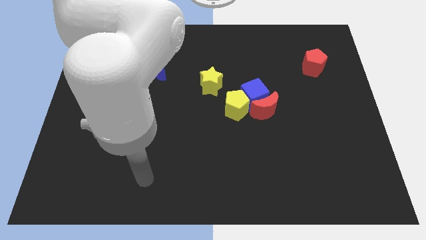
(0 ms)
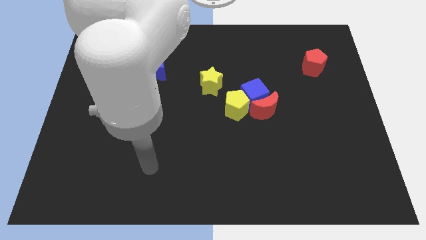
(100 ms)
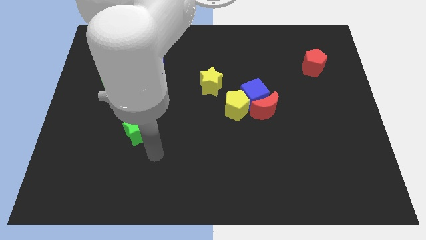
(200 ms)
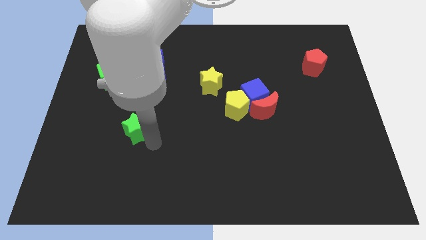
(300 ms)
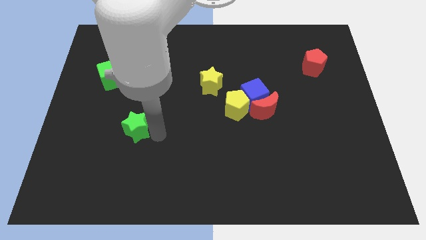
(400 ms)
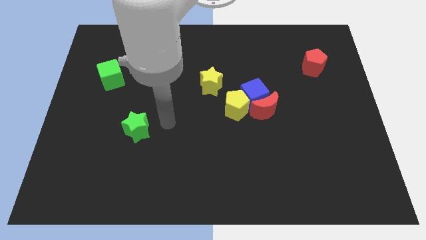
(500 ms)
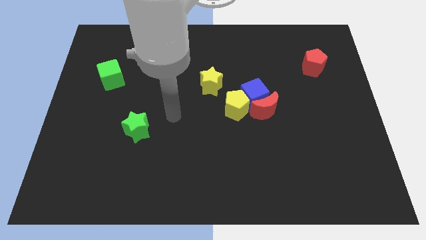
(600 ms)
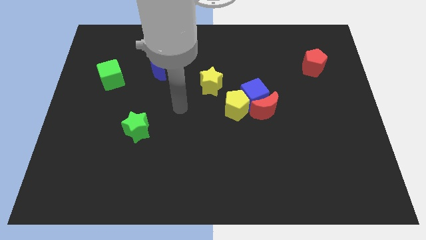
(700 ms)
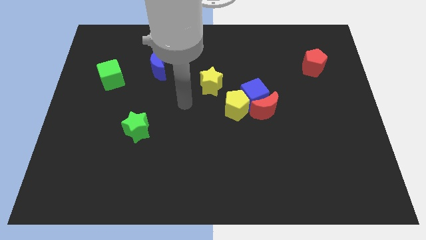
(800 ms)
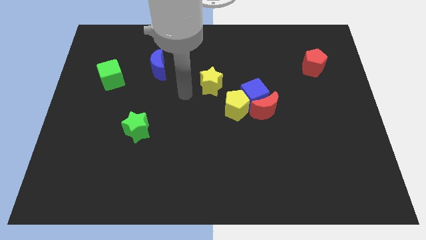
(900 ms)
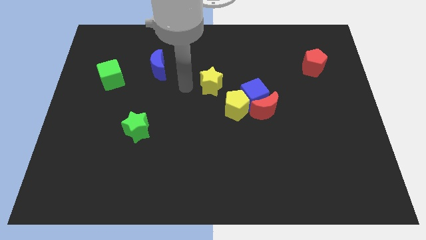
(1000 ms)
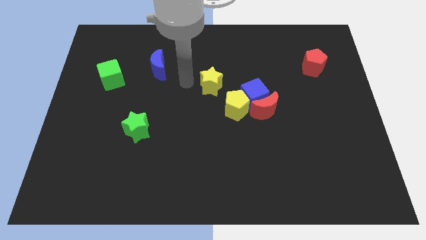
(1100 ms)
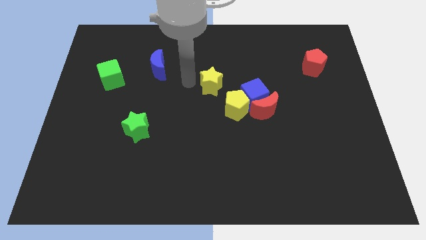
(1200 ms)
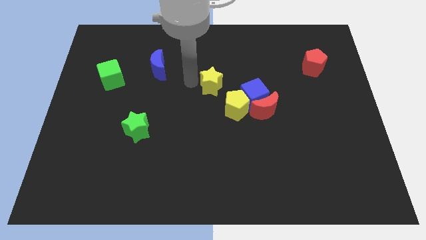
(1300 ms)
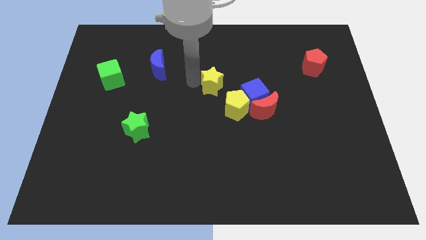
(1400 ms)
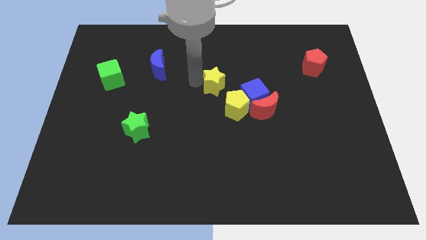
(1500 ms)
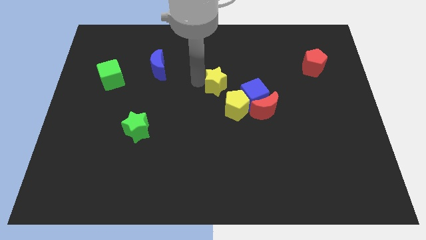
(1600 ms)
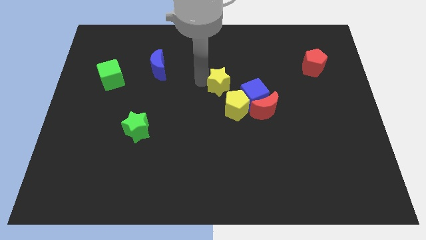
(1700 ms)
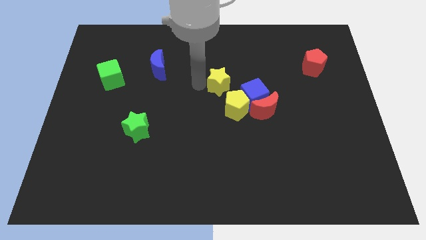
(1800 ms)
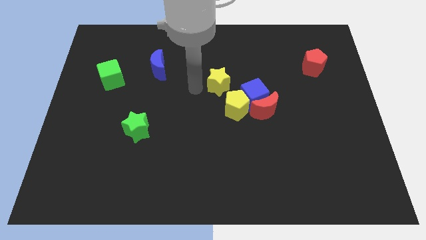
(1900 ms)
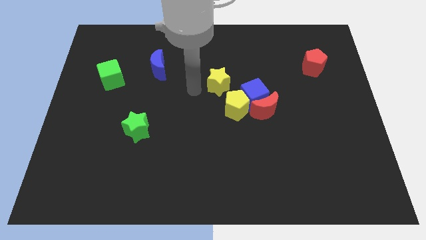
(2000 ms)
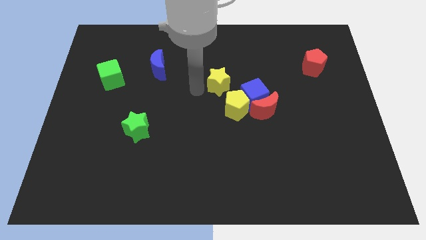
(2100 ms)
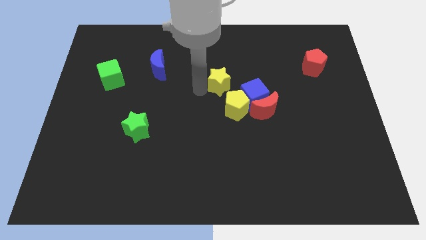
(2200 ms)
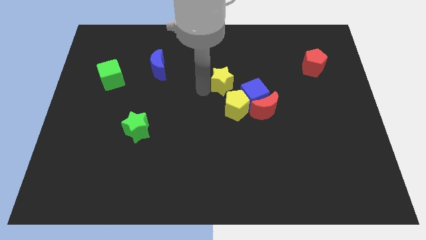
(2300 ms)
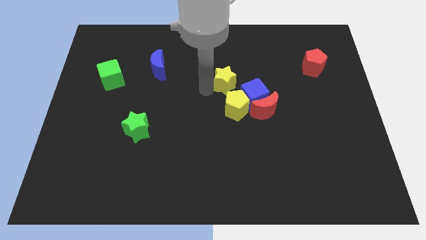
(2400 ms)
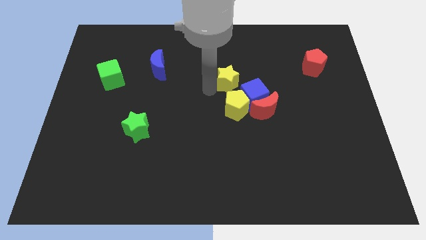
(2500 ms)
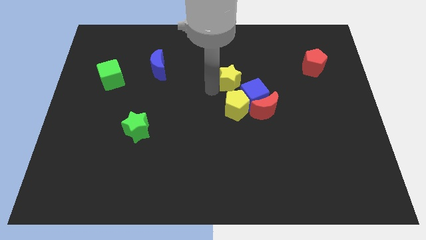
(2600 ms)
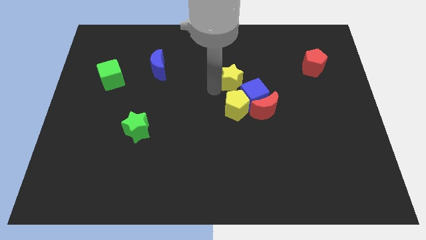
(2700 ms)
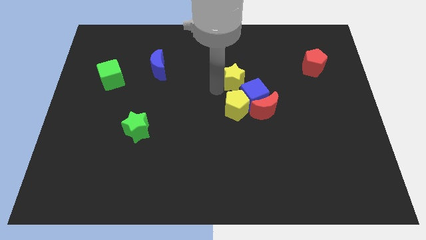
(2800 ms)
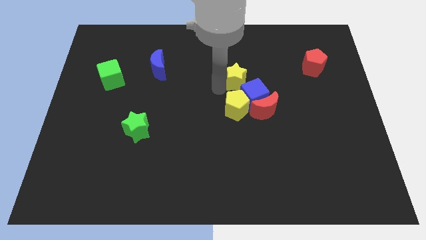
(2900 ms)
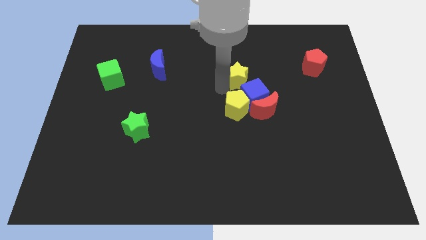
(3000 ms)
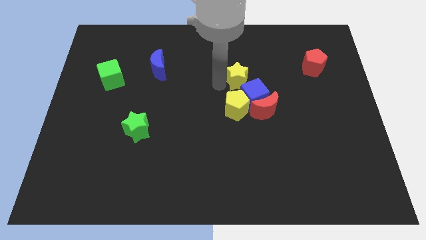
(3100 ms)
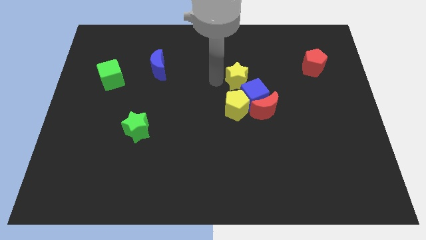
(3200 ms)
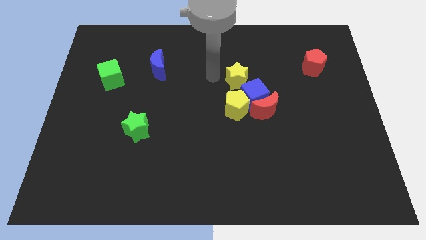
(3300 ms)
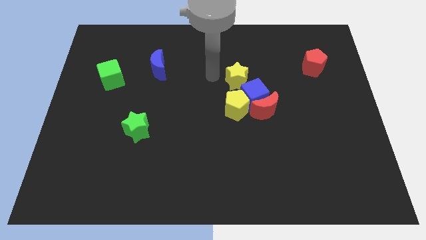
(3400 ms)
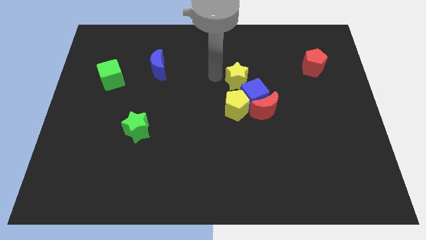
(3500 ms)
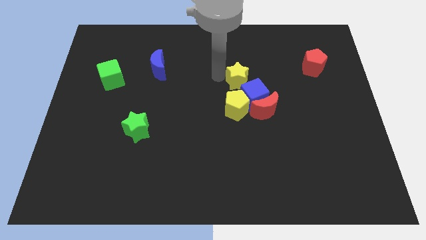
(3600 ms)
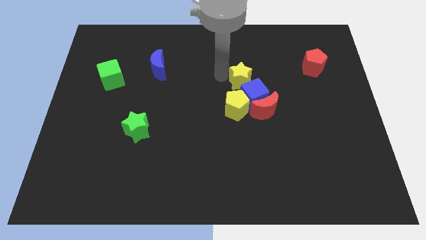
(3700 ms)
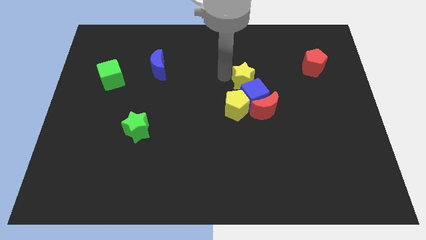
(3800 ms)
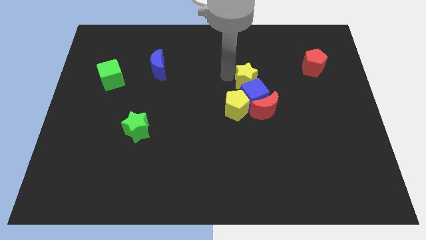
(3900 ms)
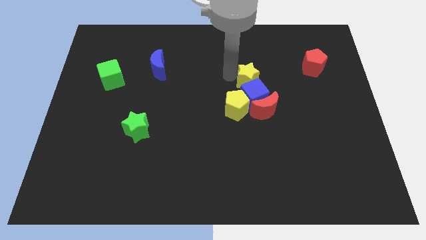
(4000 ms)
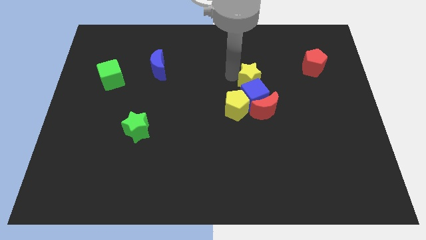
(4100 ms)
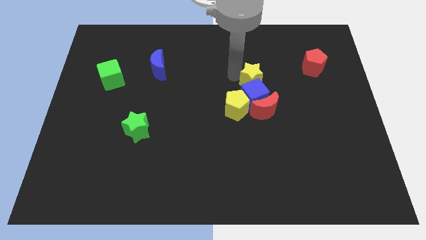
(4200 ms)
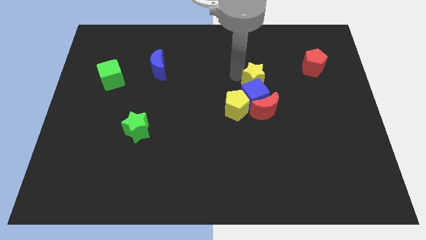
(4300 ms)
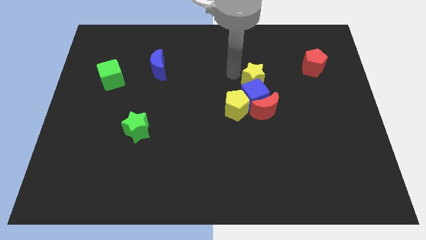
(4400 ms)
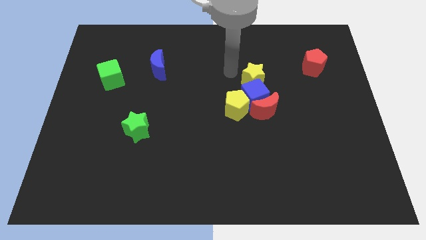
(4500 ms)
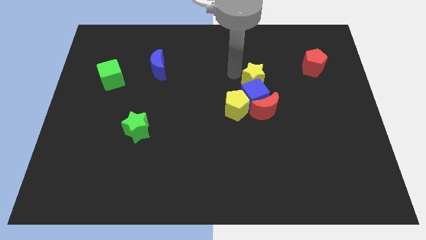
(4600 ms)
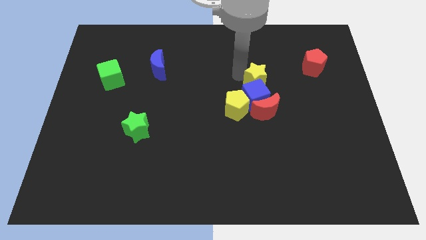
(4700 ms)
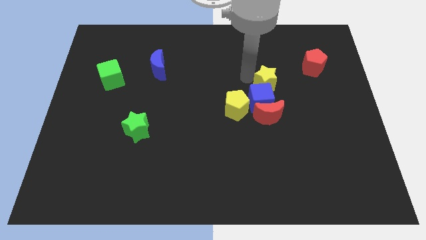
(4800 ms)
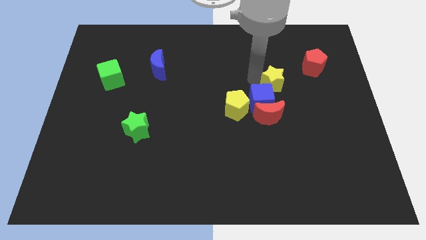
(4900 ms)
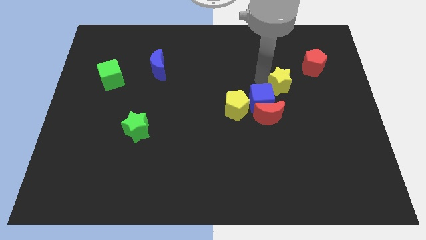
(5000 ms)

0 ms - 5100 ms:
push the yellow star diagonally up and to the right of the red moon

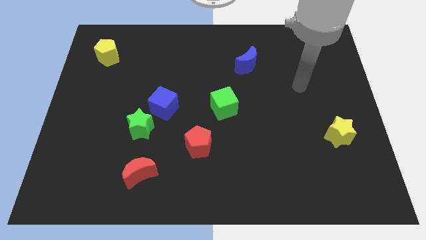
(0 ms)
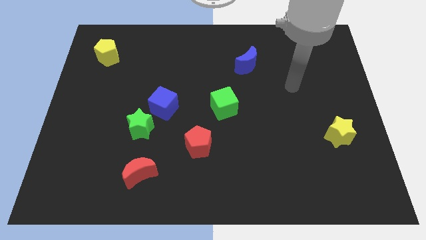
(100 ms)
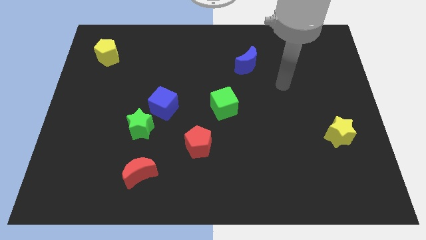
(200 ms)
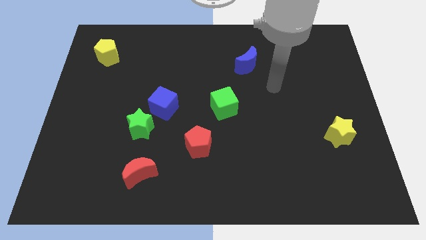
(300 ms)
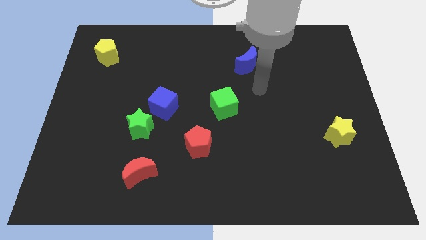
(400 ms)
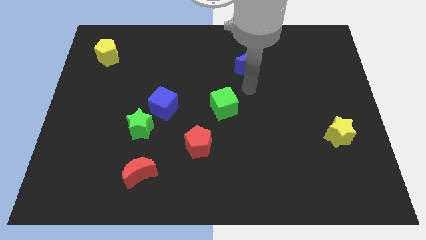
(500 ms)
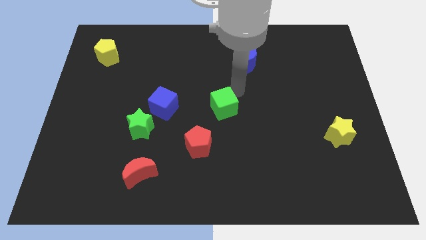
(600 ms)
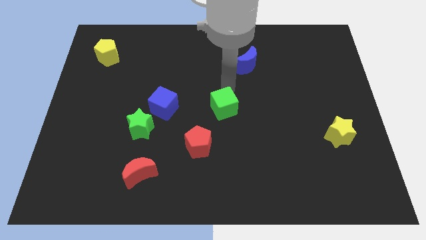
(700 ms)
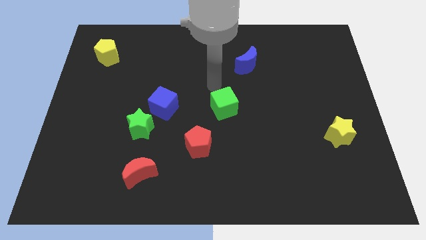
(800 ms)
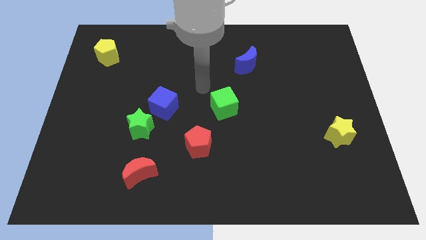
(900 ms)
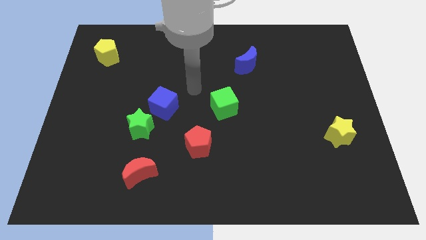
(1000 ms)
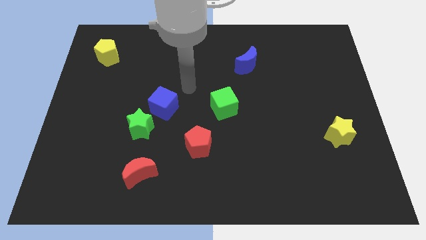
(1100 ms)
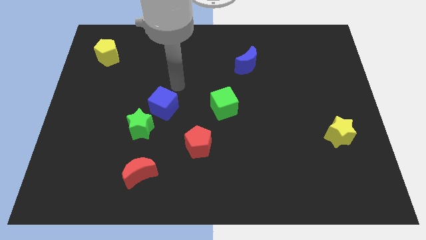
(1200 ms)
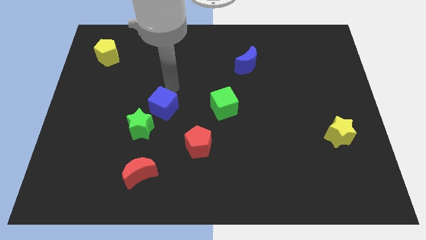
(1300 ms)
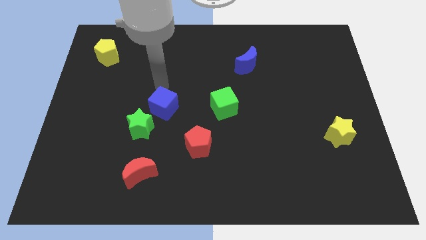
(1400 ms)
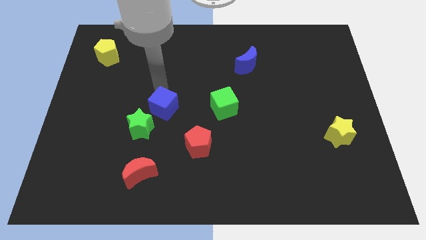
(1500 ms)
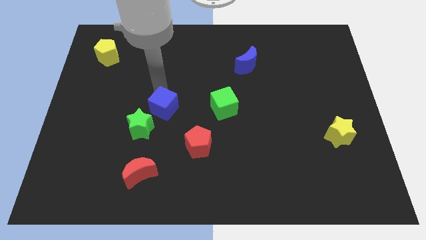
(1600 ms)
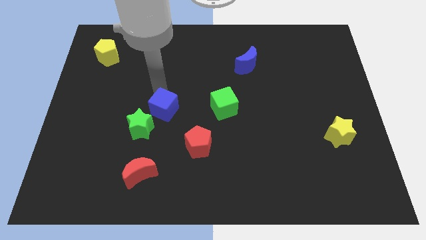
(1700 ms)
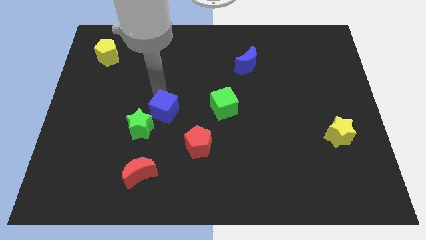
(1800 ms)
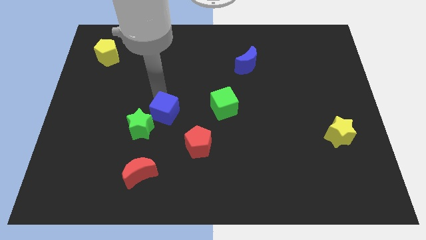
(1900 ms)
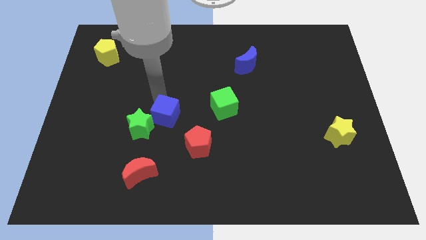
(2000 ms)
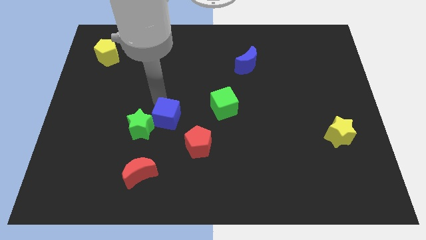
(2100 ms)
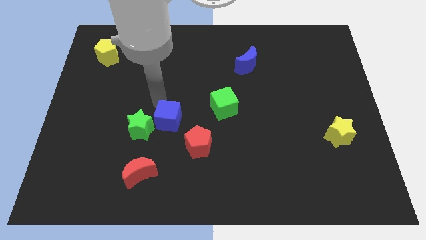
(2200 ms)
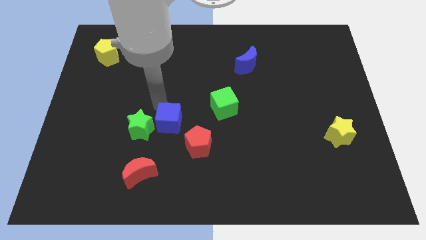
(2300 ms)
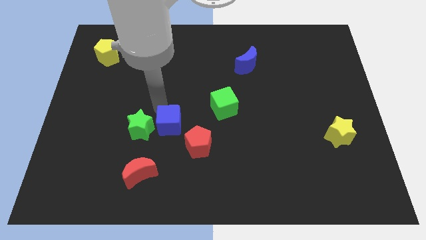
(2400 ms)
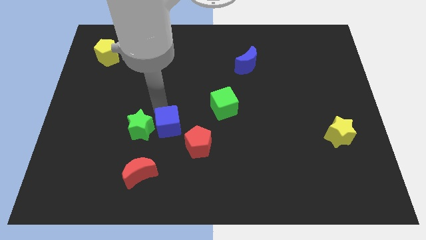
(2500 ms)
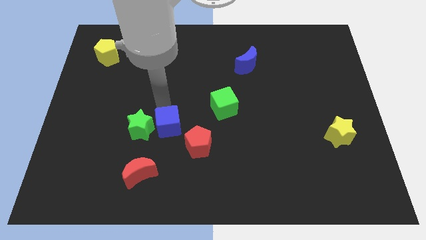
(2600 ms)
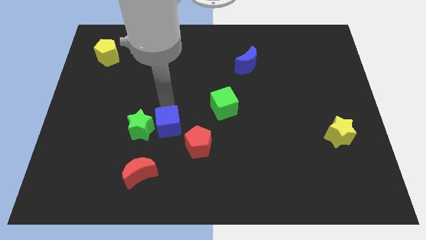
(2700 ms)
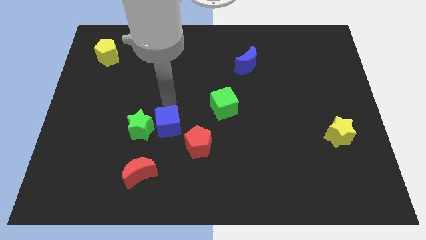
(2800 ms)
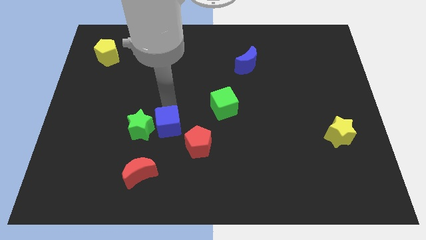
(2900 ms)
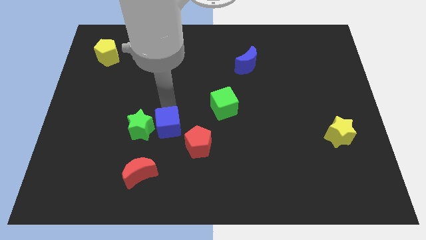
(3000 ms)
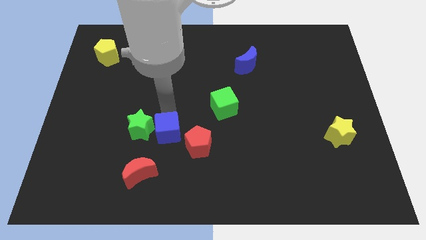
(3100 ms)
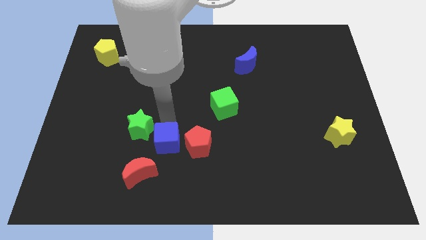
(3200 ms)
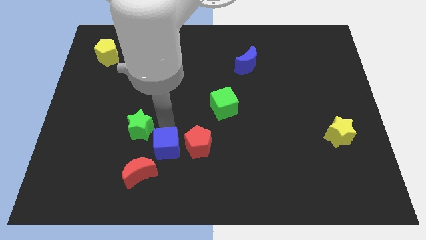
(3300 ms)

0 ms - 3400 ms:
push the blue cube to the bottom left side of the red pentagon
